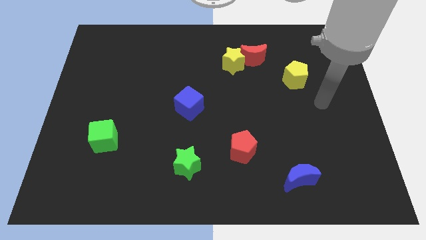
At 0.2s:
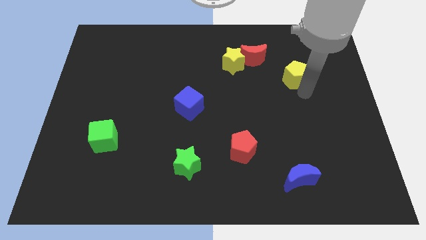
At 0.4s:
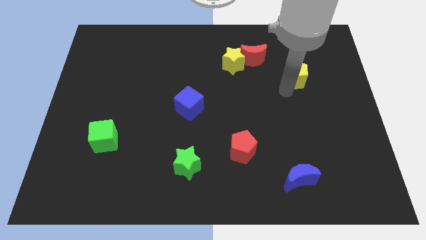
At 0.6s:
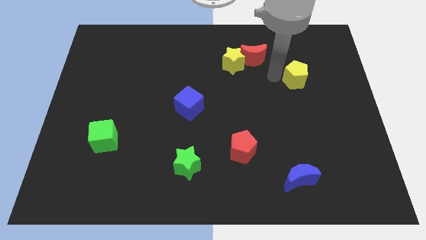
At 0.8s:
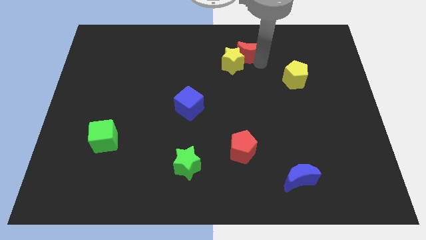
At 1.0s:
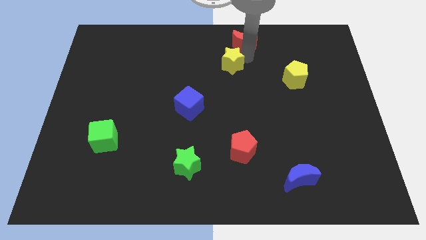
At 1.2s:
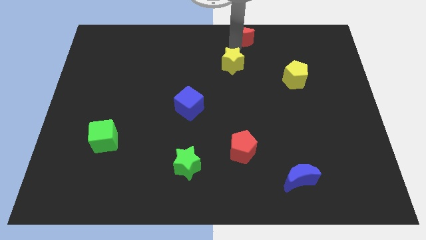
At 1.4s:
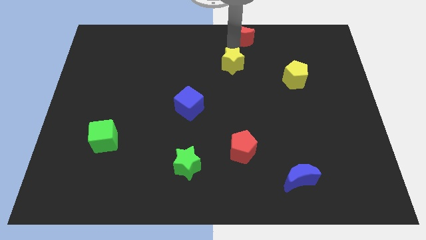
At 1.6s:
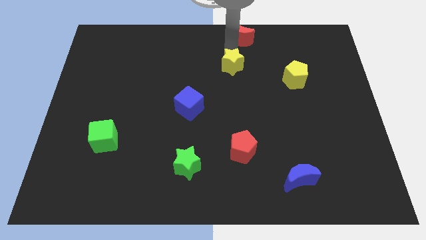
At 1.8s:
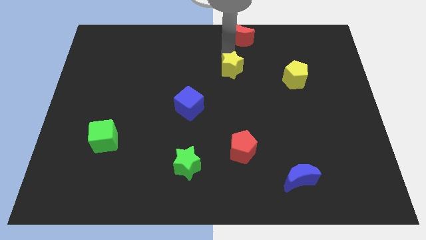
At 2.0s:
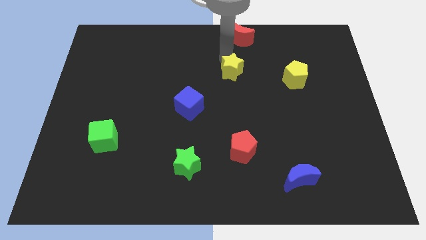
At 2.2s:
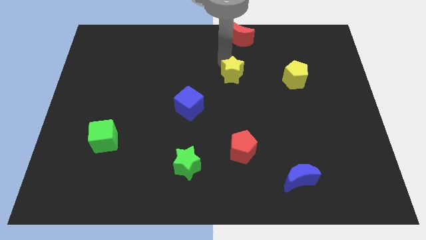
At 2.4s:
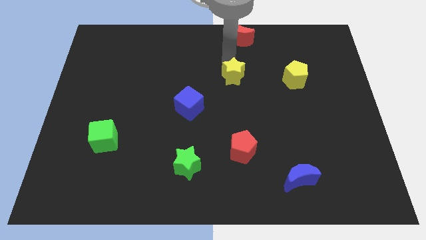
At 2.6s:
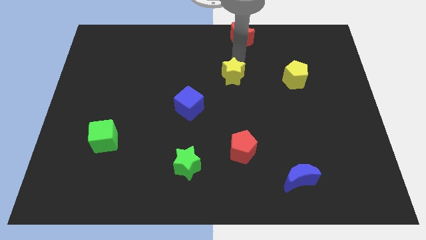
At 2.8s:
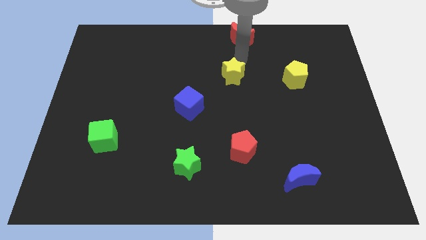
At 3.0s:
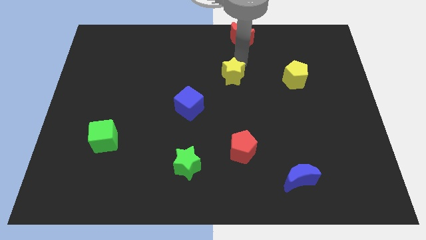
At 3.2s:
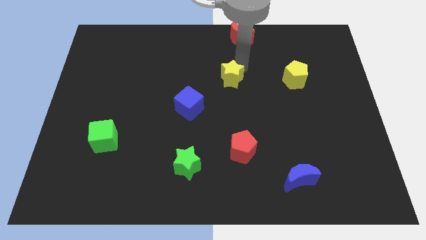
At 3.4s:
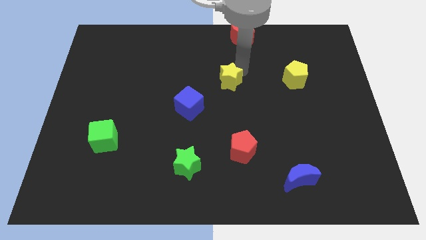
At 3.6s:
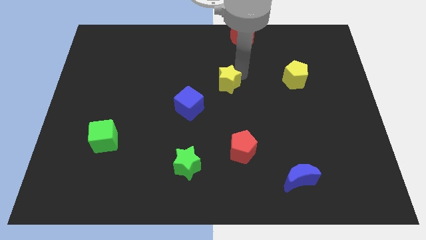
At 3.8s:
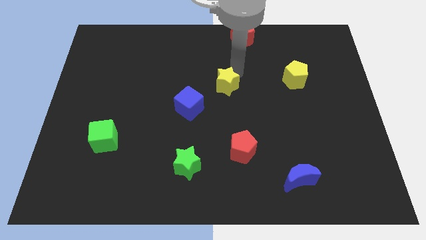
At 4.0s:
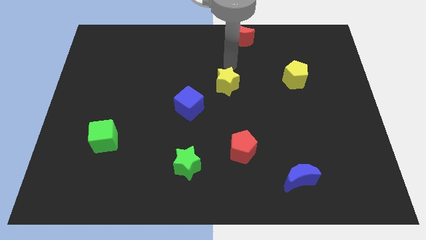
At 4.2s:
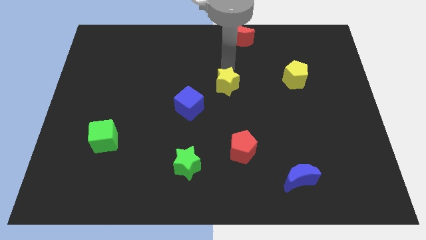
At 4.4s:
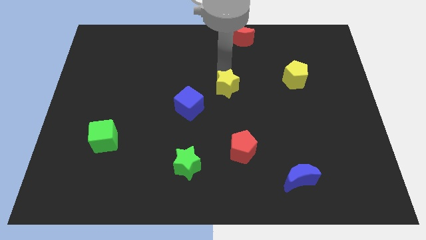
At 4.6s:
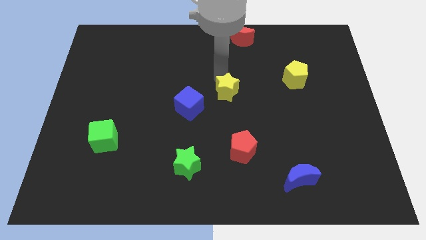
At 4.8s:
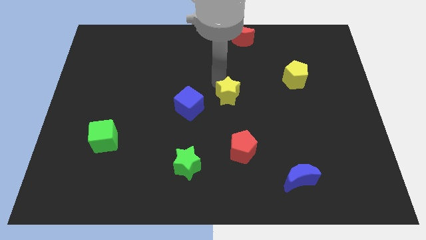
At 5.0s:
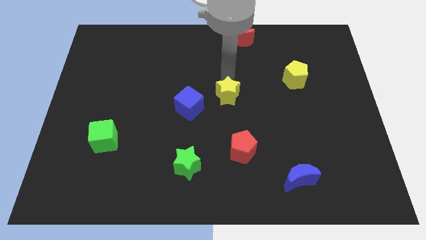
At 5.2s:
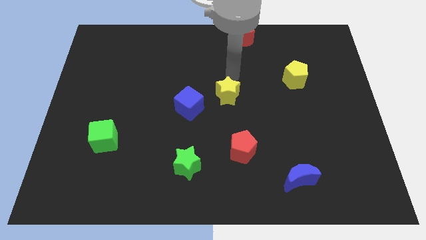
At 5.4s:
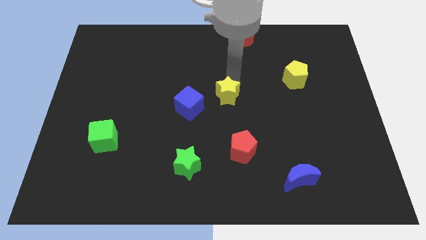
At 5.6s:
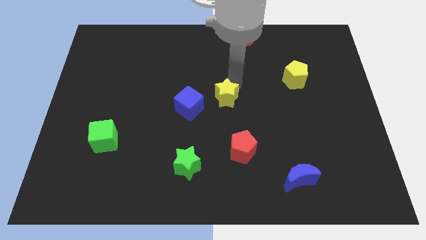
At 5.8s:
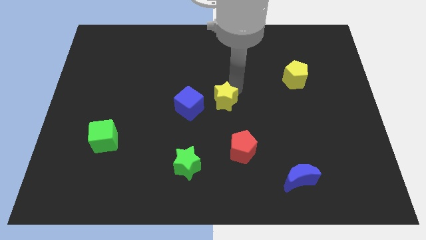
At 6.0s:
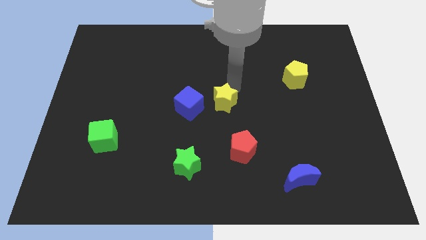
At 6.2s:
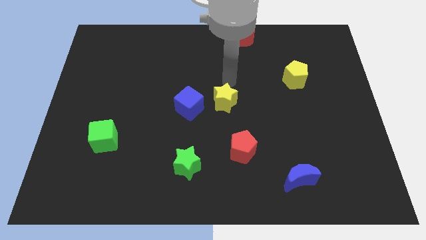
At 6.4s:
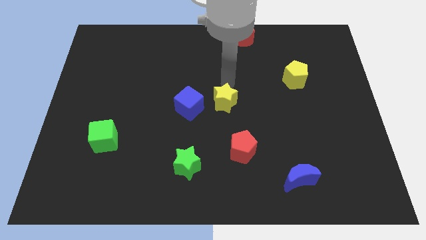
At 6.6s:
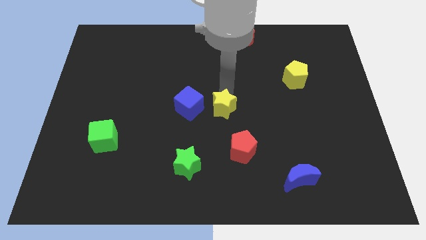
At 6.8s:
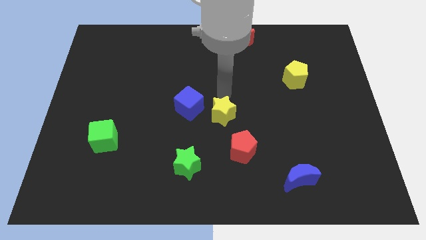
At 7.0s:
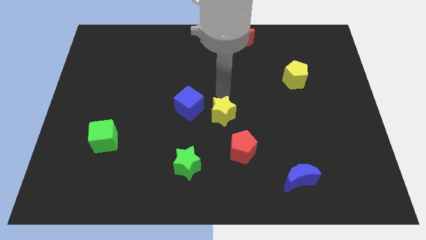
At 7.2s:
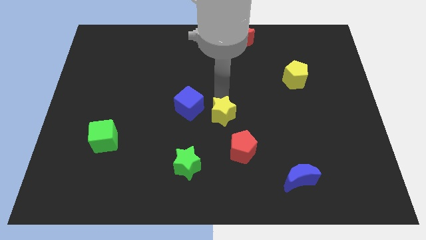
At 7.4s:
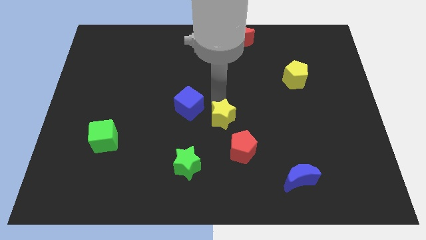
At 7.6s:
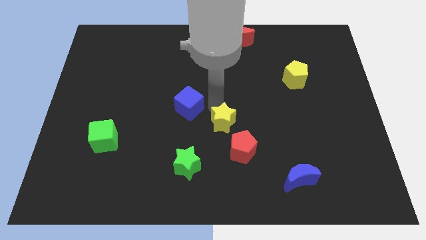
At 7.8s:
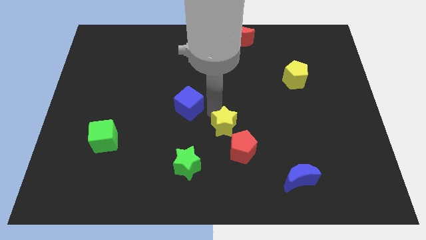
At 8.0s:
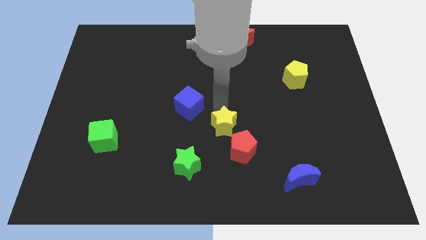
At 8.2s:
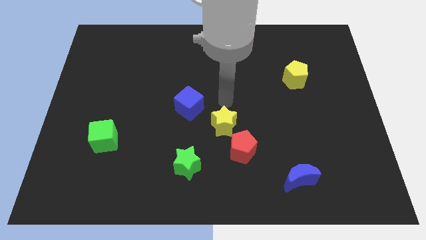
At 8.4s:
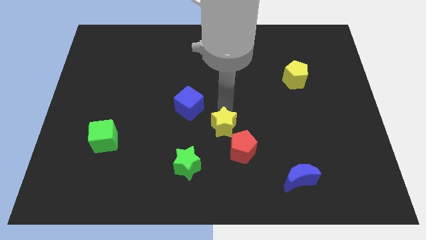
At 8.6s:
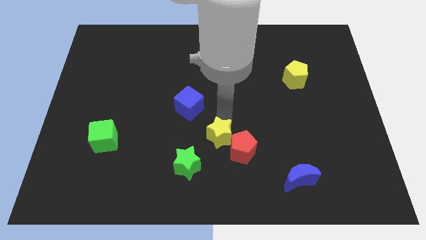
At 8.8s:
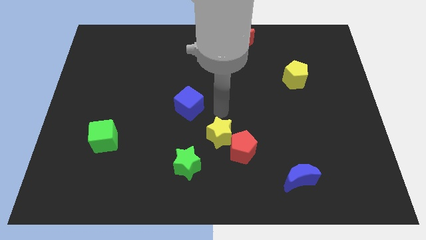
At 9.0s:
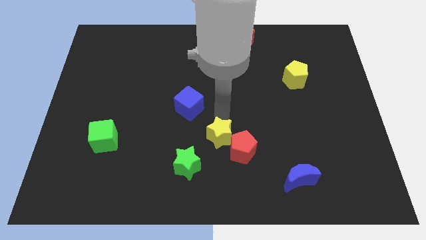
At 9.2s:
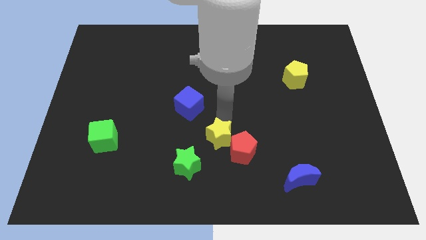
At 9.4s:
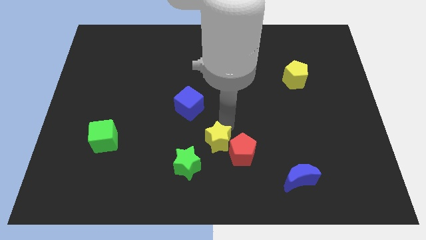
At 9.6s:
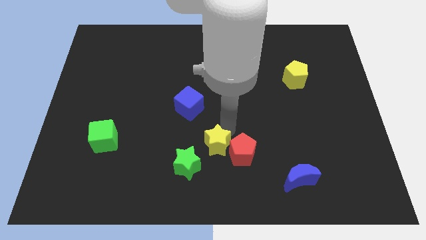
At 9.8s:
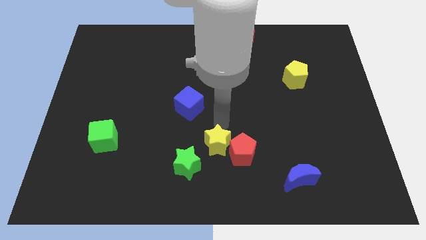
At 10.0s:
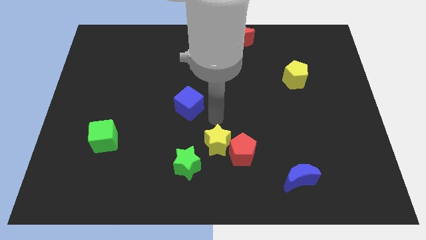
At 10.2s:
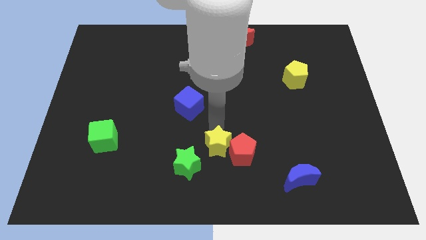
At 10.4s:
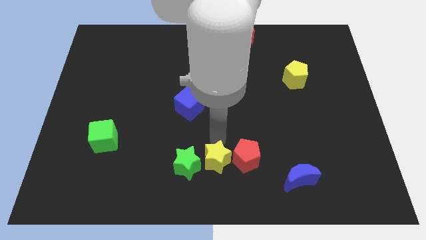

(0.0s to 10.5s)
slide the yellow star to the bottom

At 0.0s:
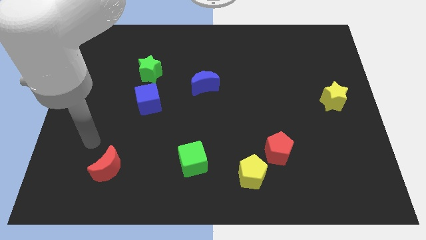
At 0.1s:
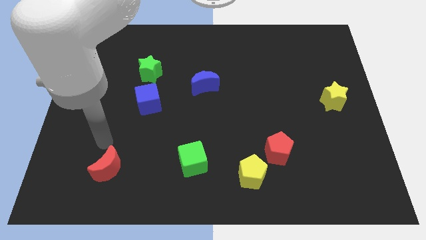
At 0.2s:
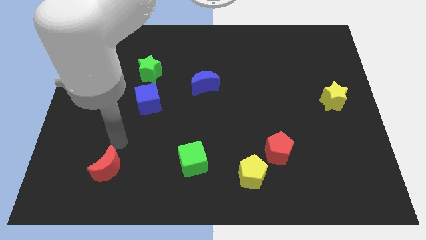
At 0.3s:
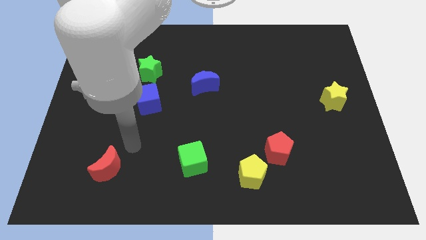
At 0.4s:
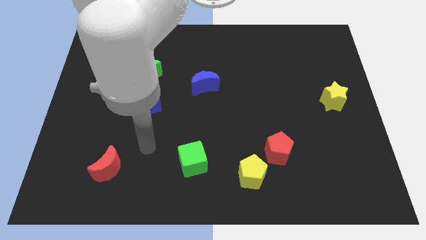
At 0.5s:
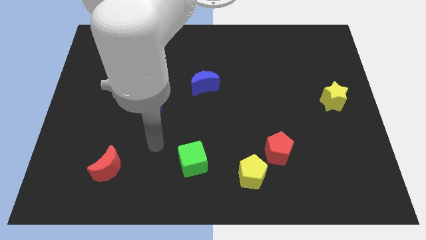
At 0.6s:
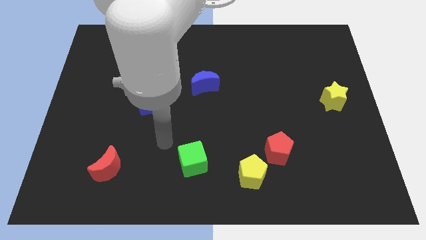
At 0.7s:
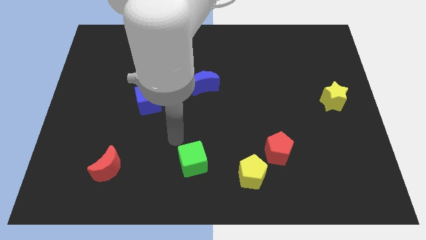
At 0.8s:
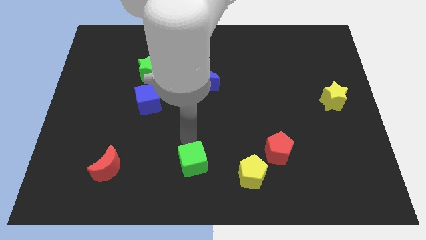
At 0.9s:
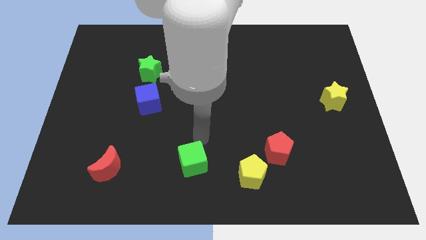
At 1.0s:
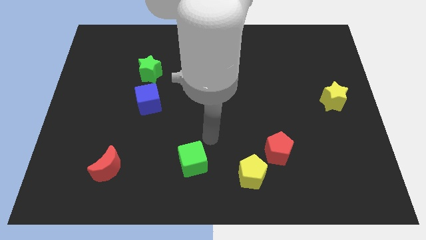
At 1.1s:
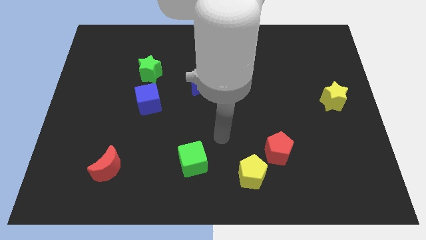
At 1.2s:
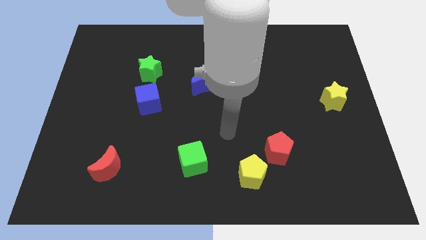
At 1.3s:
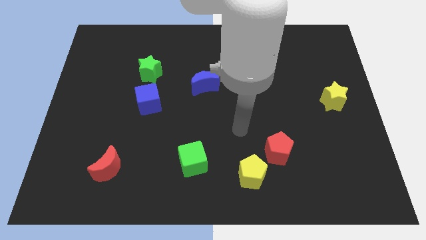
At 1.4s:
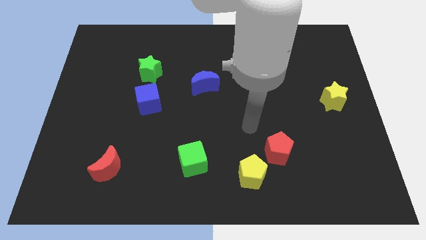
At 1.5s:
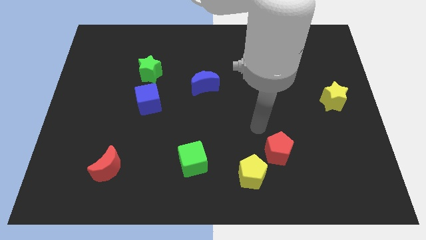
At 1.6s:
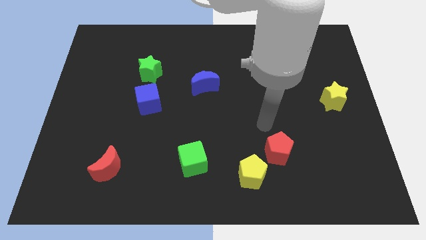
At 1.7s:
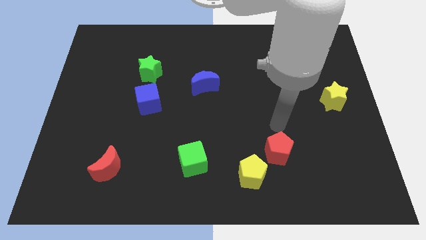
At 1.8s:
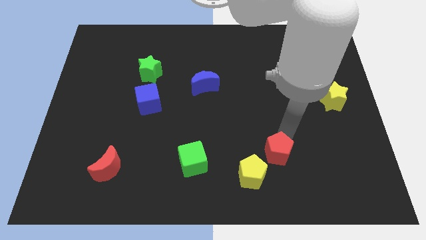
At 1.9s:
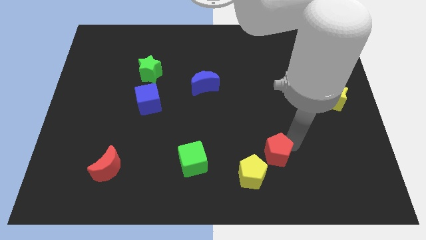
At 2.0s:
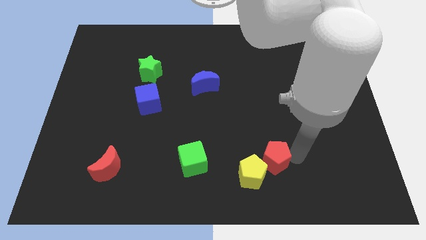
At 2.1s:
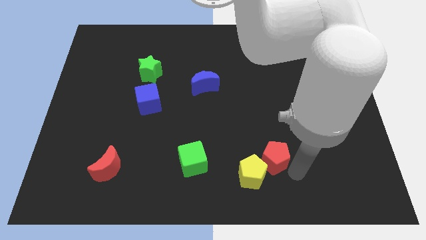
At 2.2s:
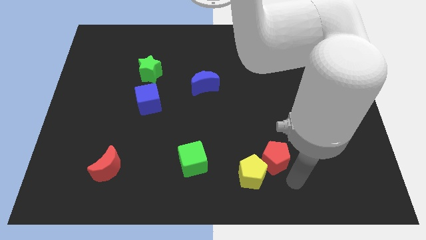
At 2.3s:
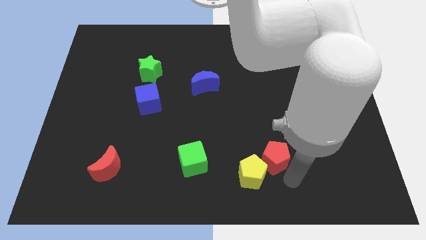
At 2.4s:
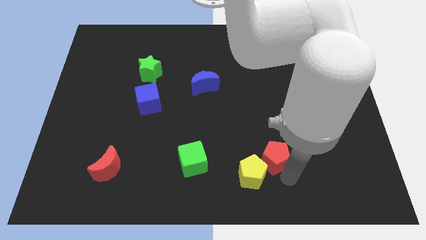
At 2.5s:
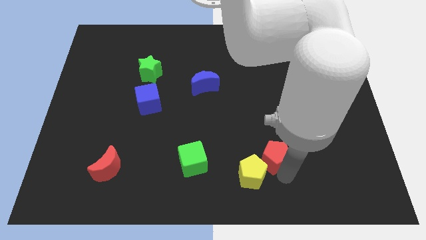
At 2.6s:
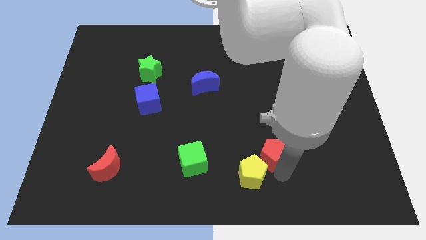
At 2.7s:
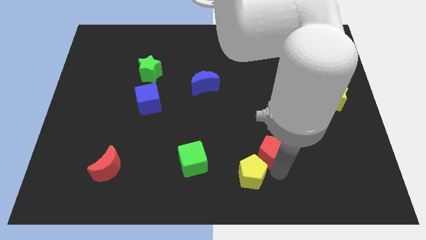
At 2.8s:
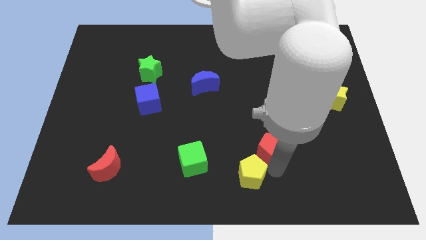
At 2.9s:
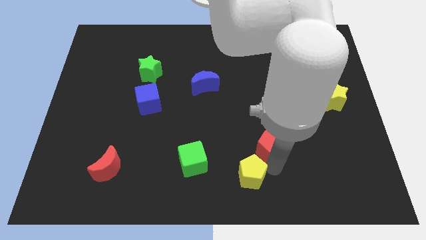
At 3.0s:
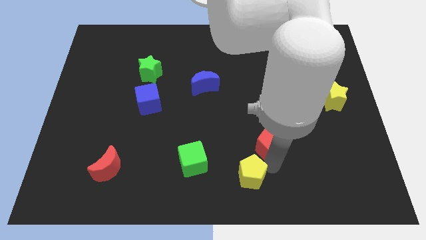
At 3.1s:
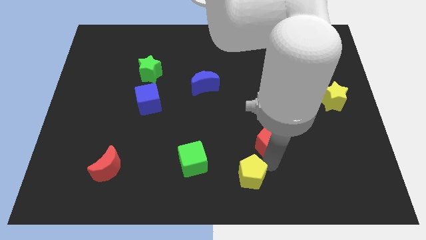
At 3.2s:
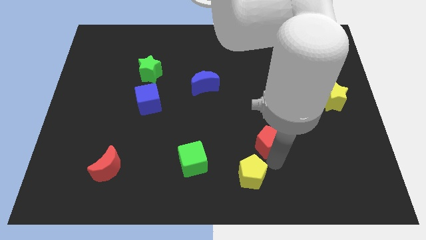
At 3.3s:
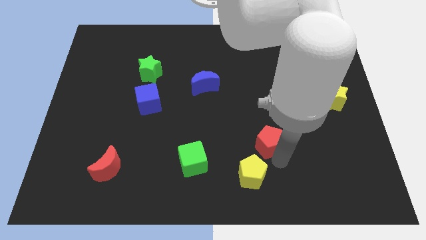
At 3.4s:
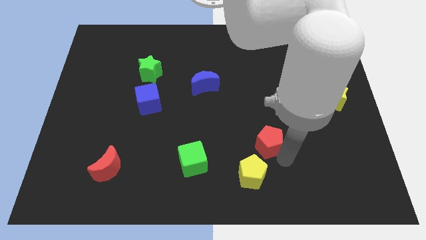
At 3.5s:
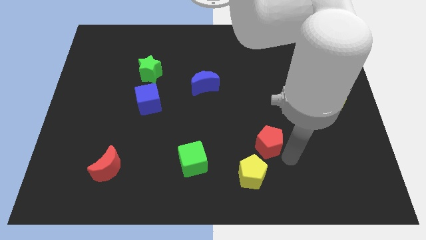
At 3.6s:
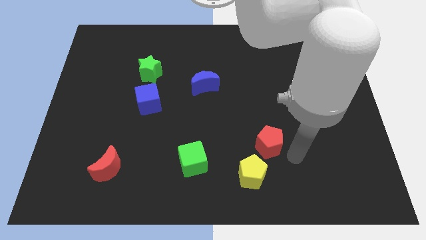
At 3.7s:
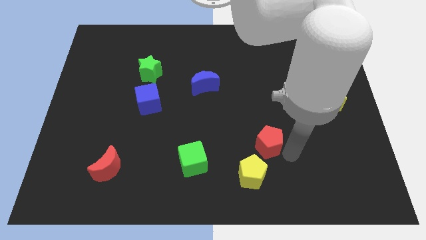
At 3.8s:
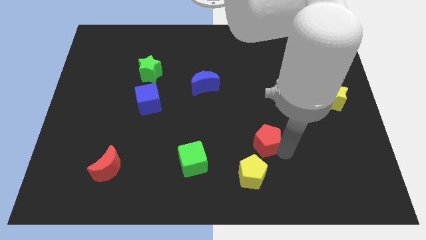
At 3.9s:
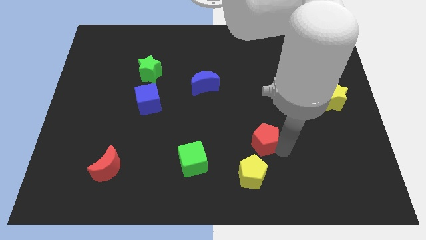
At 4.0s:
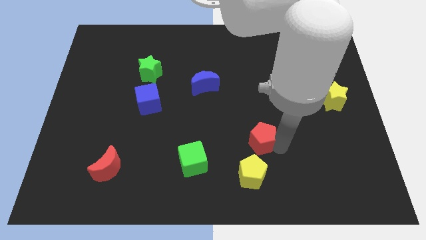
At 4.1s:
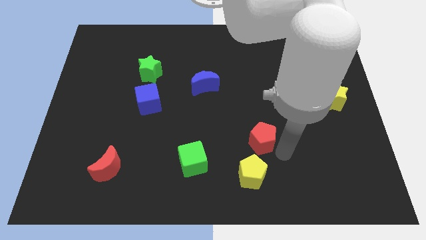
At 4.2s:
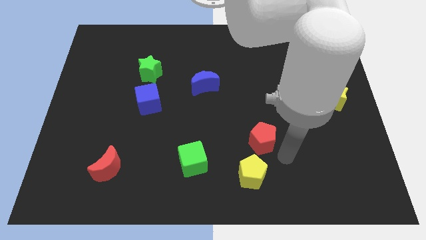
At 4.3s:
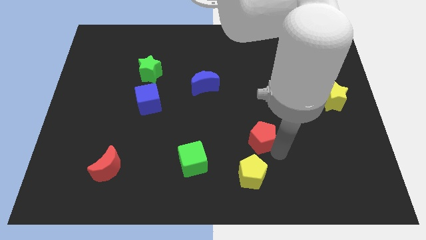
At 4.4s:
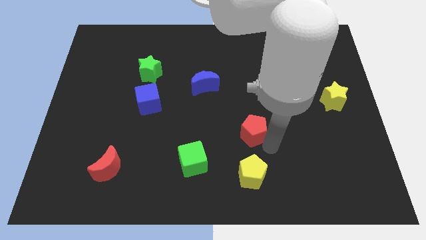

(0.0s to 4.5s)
push the red pentagon to the middle of the board
